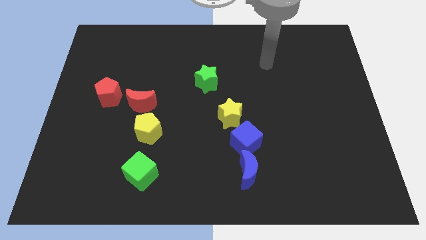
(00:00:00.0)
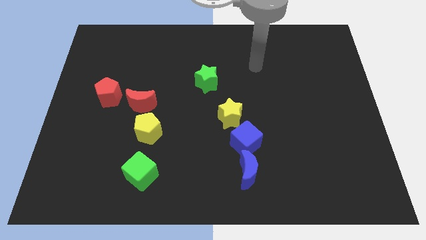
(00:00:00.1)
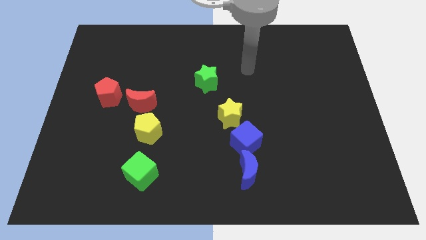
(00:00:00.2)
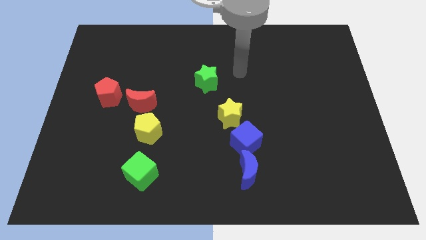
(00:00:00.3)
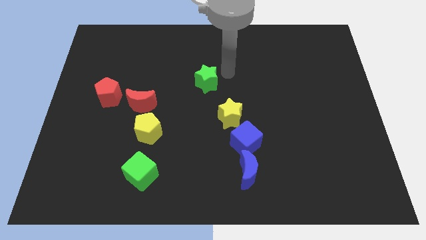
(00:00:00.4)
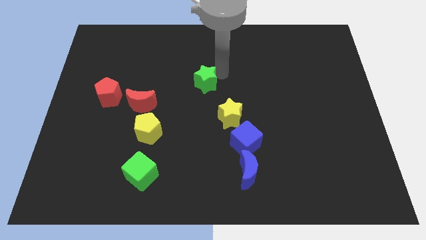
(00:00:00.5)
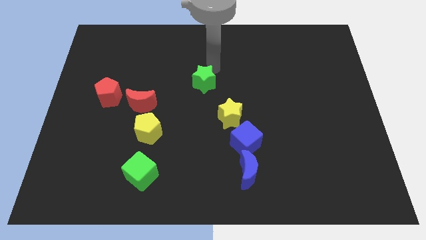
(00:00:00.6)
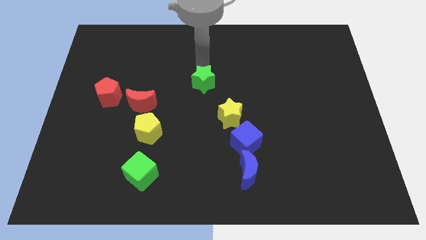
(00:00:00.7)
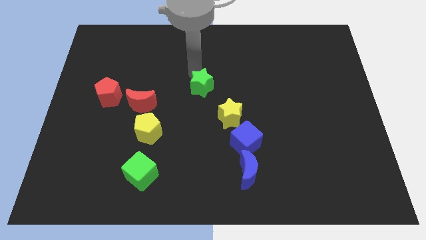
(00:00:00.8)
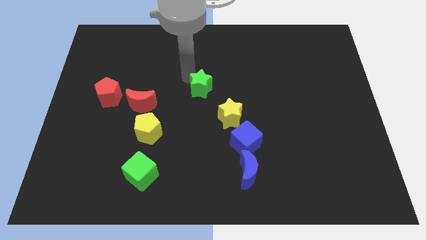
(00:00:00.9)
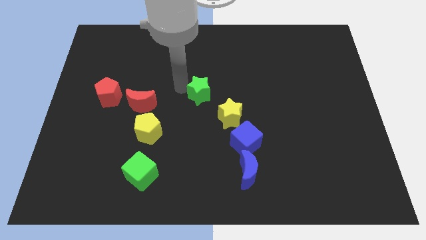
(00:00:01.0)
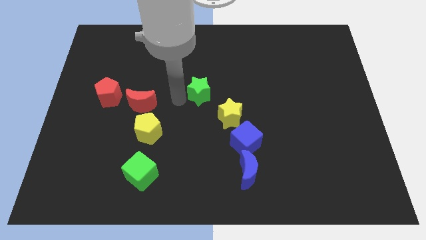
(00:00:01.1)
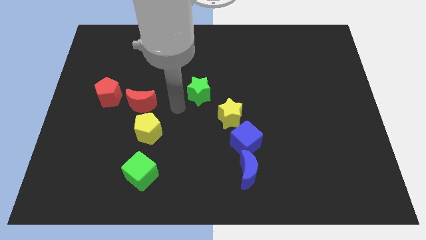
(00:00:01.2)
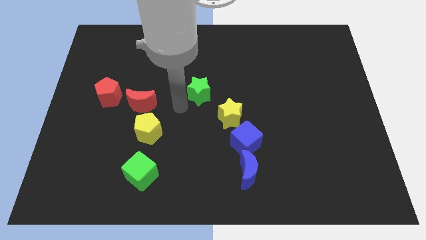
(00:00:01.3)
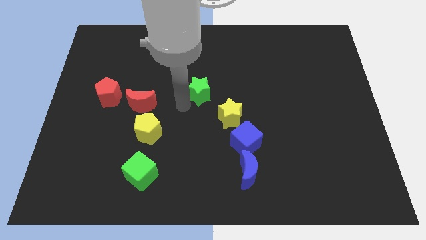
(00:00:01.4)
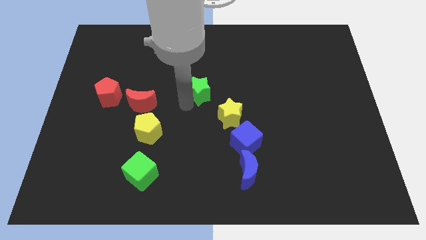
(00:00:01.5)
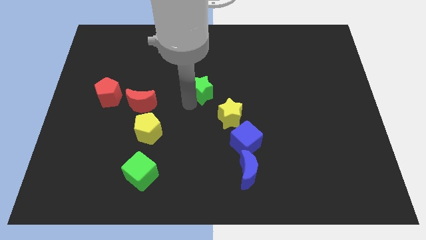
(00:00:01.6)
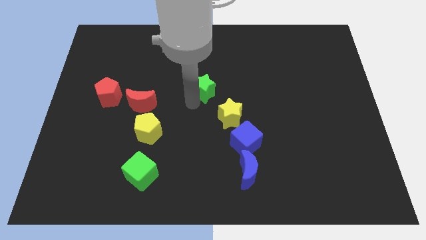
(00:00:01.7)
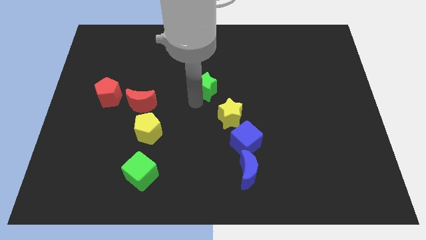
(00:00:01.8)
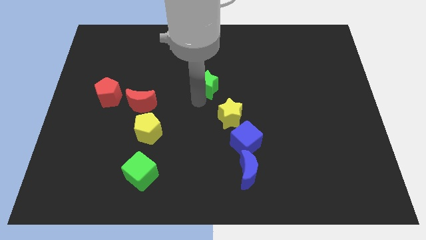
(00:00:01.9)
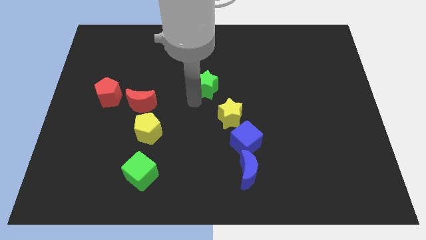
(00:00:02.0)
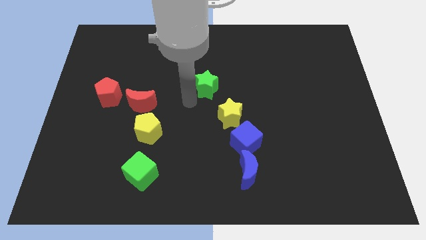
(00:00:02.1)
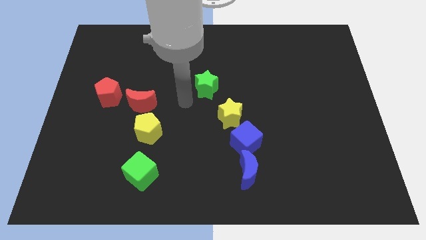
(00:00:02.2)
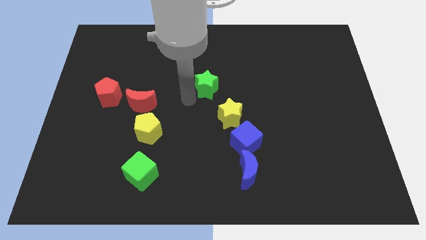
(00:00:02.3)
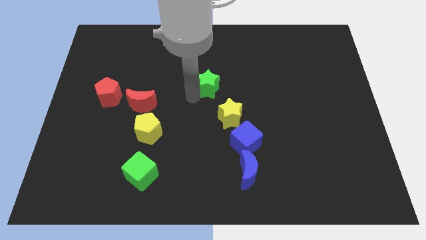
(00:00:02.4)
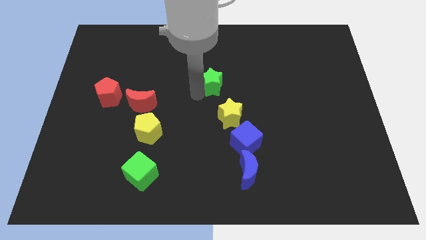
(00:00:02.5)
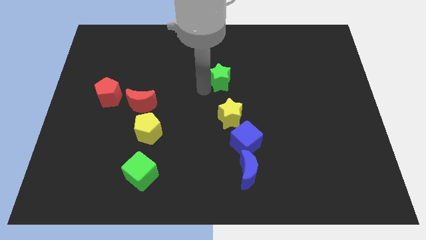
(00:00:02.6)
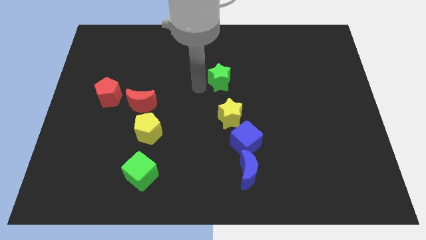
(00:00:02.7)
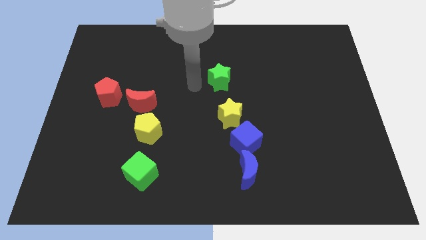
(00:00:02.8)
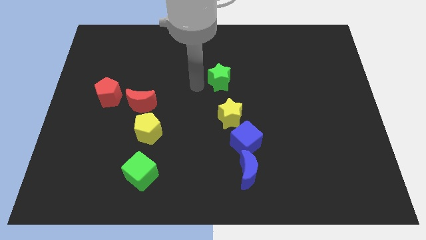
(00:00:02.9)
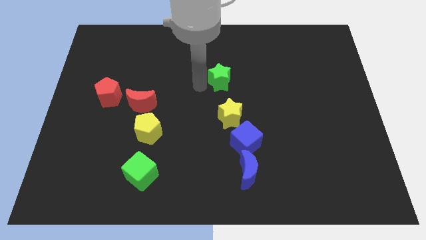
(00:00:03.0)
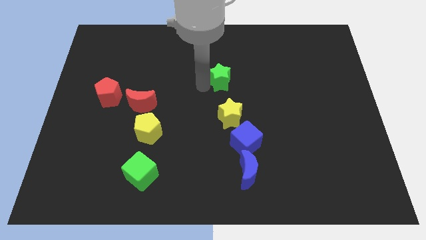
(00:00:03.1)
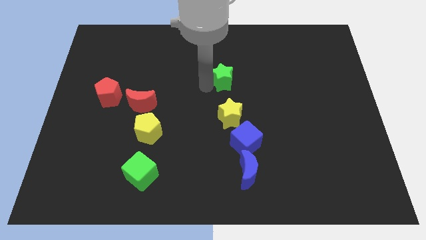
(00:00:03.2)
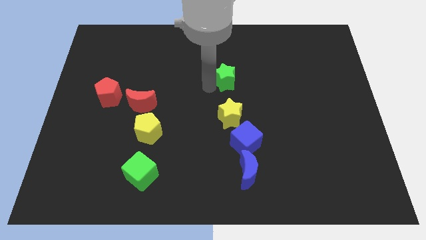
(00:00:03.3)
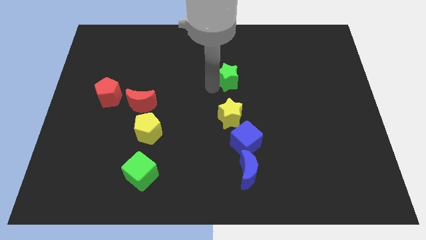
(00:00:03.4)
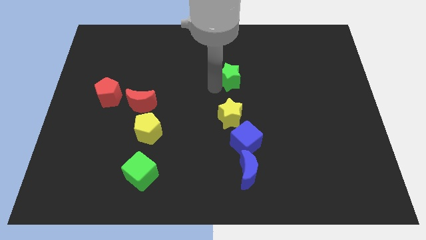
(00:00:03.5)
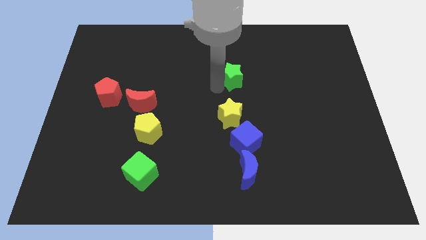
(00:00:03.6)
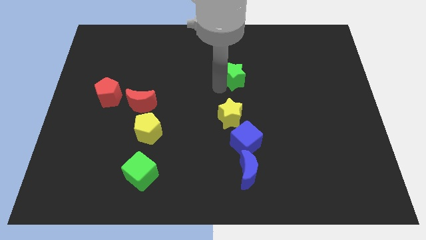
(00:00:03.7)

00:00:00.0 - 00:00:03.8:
slide the green star a little bit right

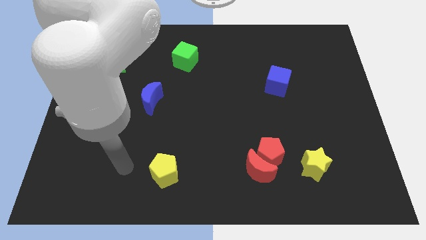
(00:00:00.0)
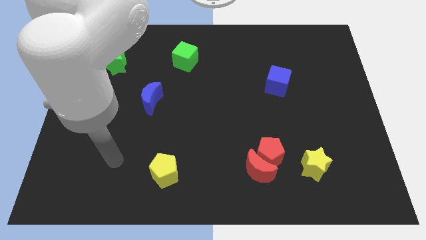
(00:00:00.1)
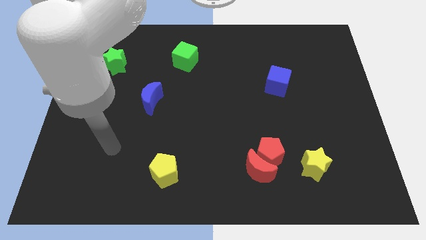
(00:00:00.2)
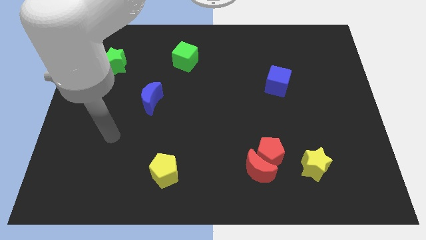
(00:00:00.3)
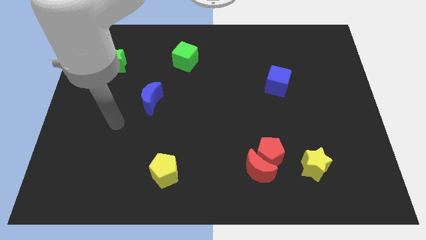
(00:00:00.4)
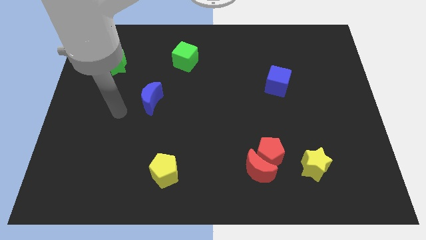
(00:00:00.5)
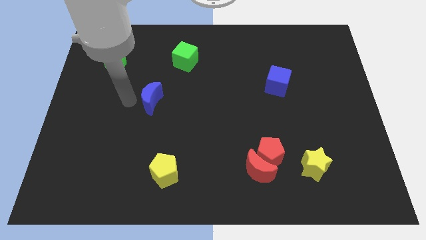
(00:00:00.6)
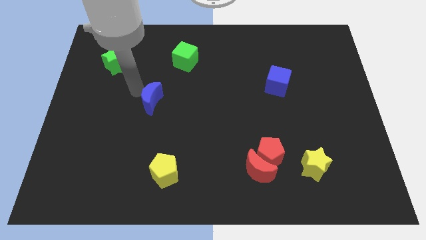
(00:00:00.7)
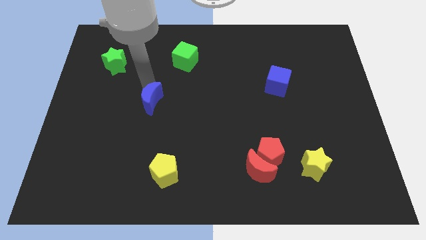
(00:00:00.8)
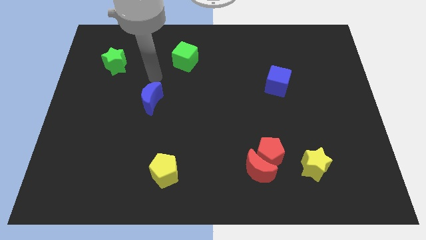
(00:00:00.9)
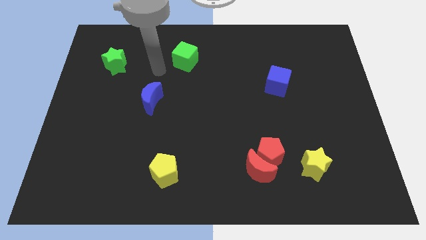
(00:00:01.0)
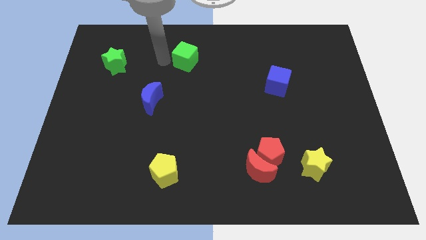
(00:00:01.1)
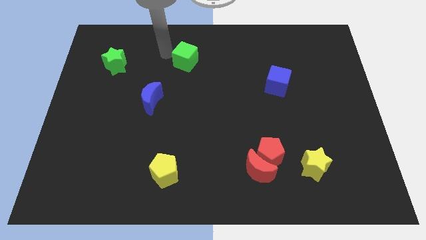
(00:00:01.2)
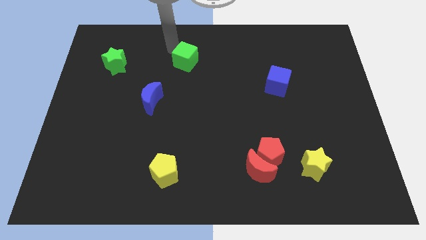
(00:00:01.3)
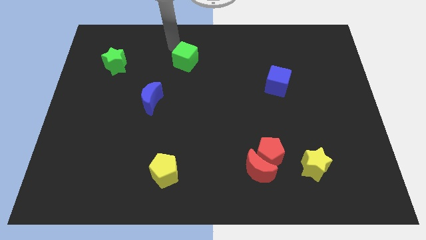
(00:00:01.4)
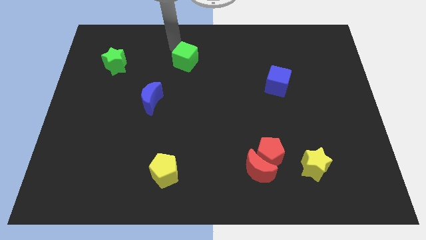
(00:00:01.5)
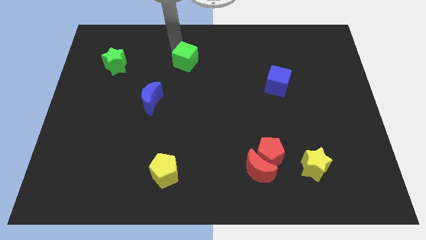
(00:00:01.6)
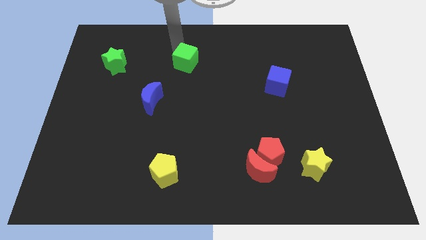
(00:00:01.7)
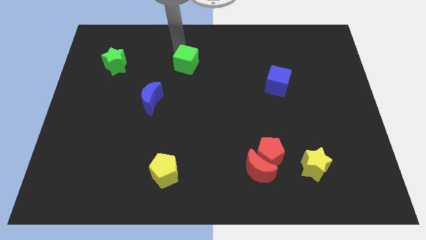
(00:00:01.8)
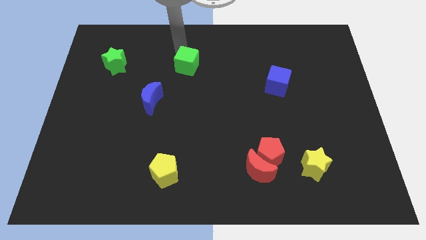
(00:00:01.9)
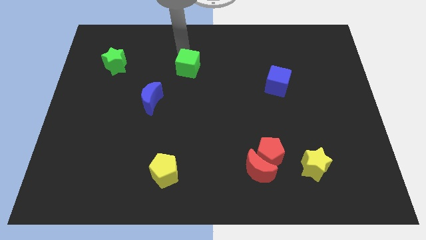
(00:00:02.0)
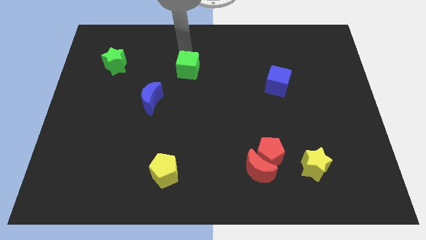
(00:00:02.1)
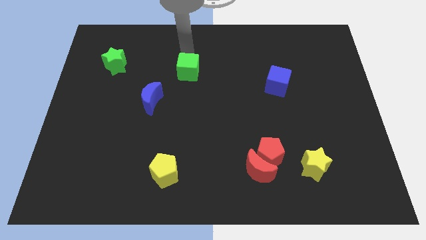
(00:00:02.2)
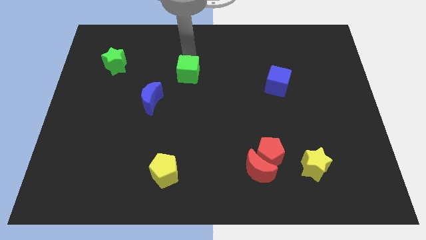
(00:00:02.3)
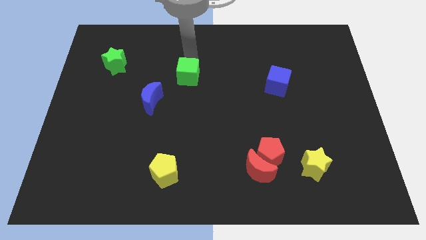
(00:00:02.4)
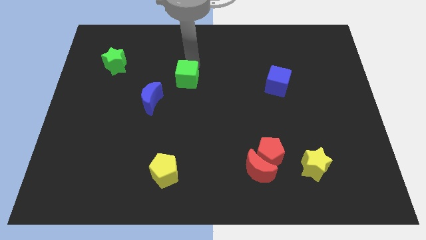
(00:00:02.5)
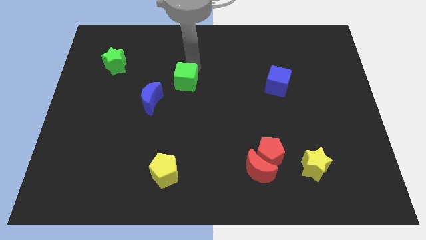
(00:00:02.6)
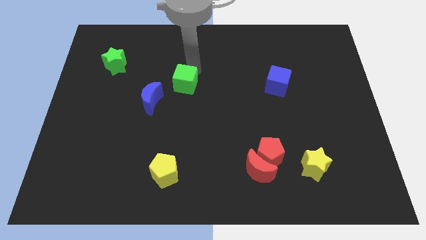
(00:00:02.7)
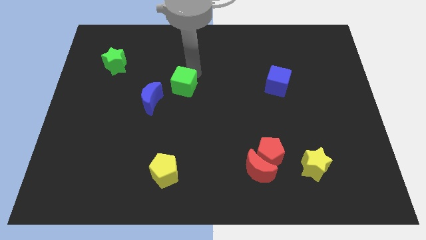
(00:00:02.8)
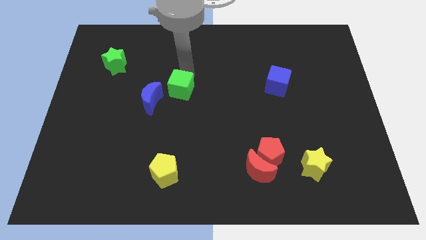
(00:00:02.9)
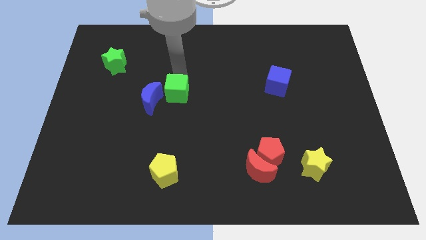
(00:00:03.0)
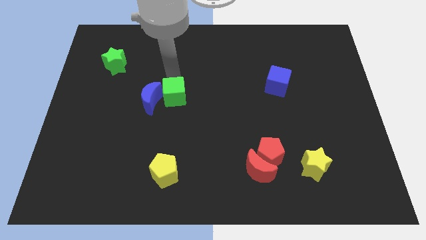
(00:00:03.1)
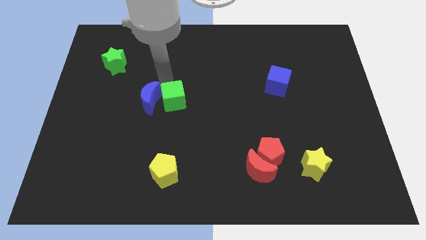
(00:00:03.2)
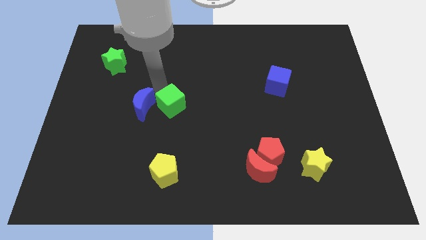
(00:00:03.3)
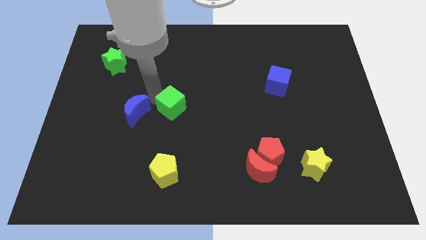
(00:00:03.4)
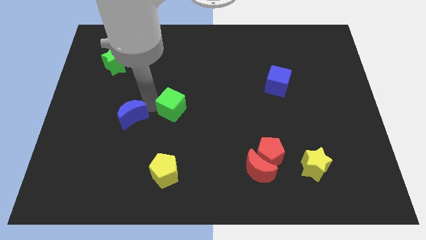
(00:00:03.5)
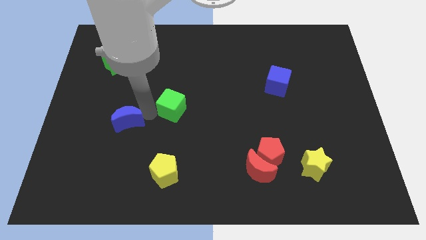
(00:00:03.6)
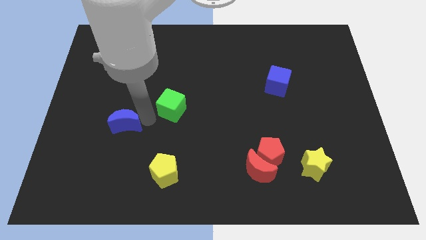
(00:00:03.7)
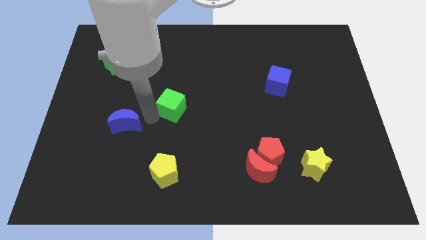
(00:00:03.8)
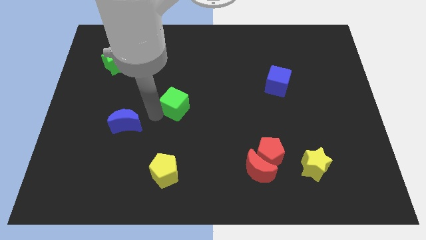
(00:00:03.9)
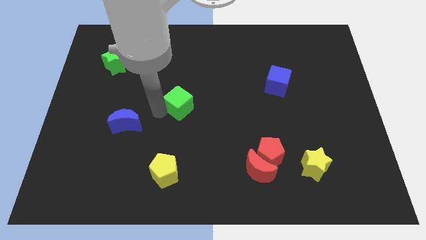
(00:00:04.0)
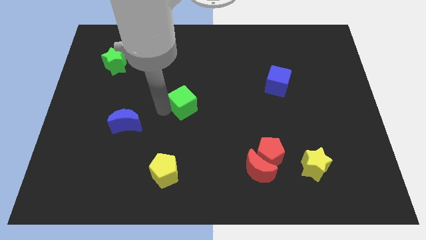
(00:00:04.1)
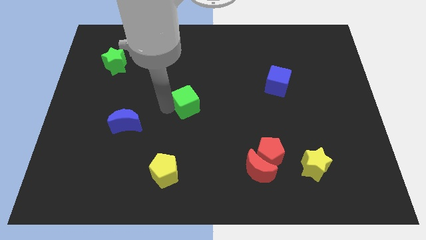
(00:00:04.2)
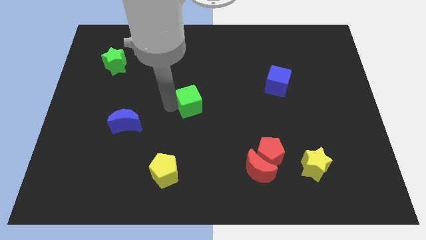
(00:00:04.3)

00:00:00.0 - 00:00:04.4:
slide the green cube a bit downwards and right diagonally

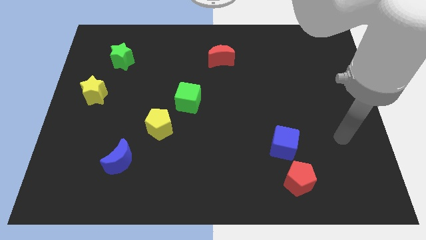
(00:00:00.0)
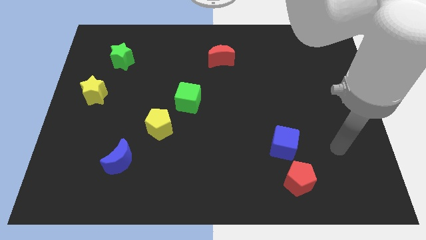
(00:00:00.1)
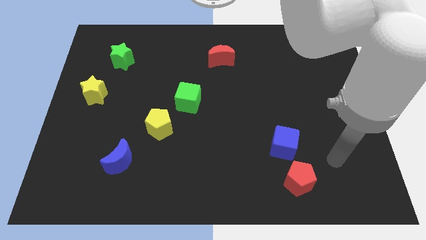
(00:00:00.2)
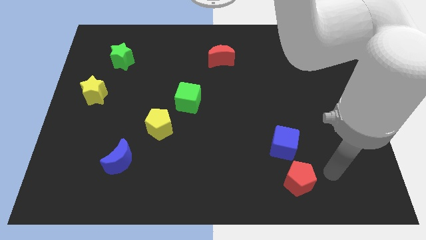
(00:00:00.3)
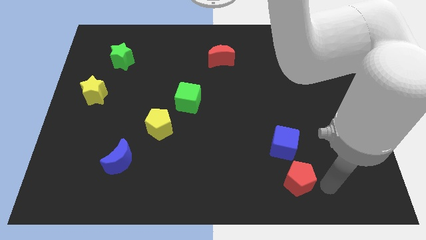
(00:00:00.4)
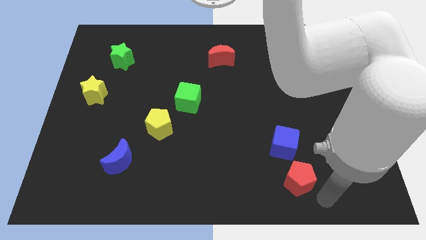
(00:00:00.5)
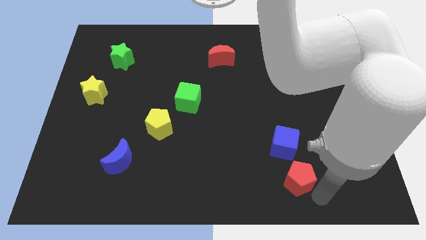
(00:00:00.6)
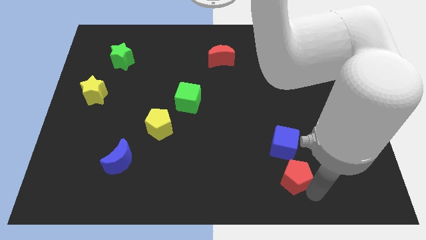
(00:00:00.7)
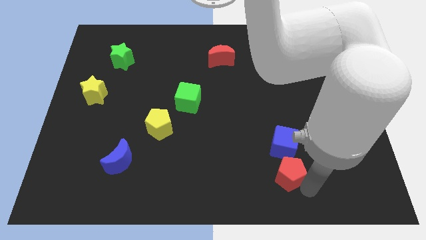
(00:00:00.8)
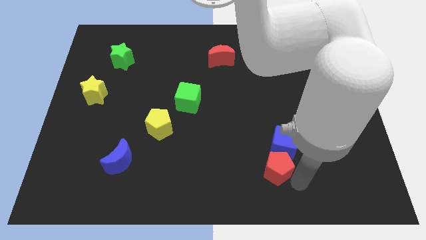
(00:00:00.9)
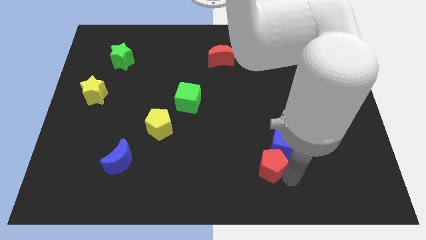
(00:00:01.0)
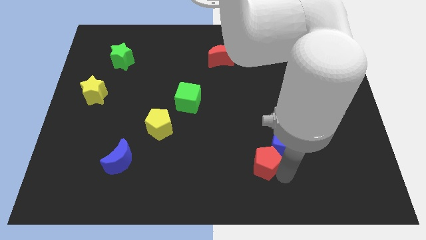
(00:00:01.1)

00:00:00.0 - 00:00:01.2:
slightly move the red pentagon diagonally upwards and to the left
